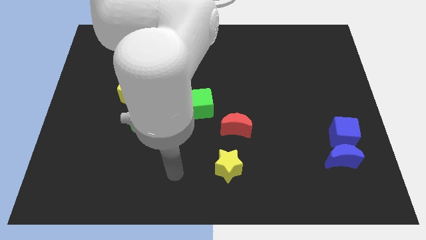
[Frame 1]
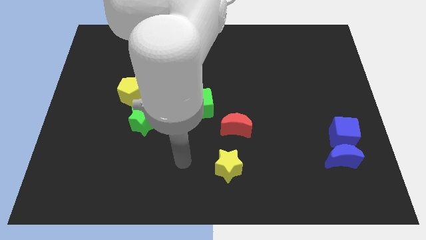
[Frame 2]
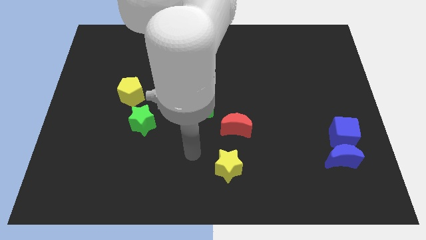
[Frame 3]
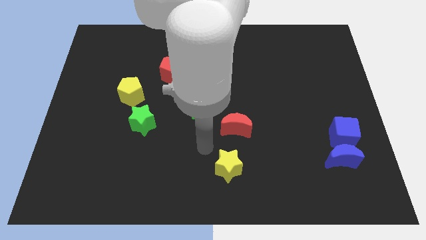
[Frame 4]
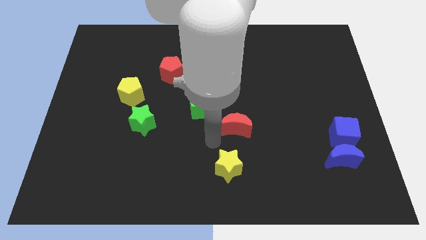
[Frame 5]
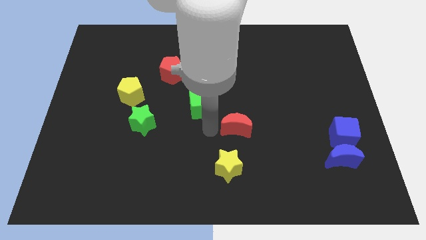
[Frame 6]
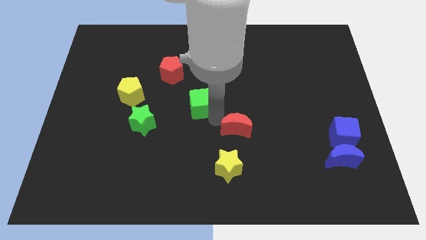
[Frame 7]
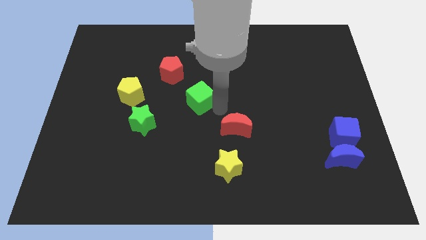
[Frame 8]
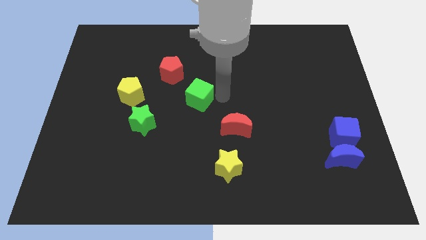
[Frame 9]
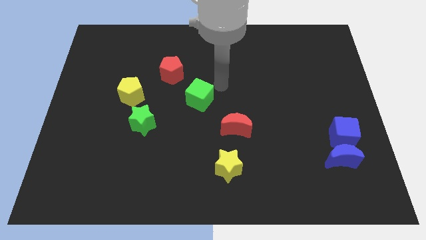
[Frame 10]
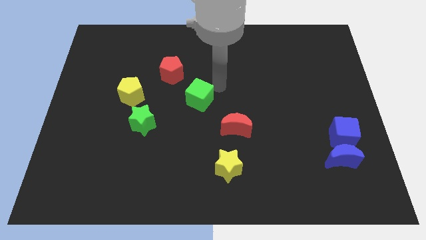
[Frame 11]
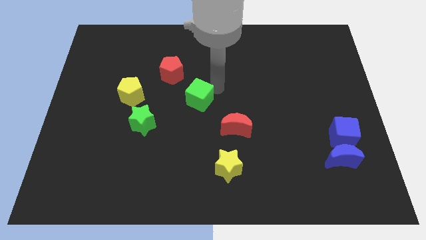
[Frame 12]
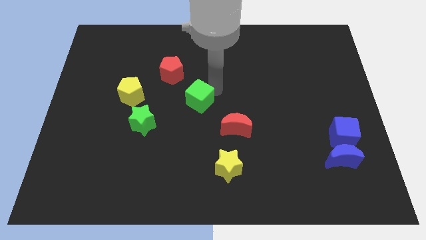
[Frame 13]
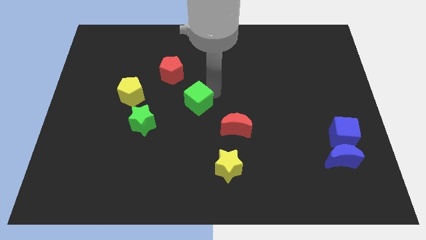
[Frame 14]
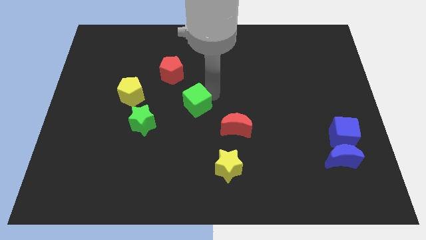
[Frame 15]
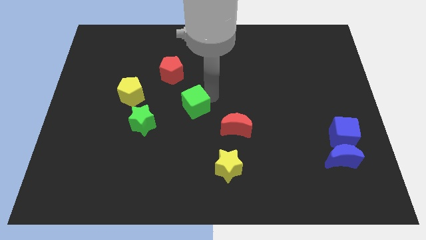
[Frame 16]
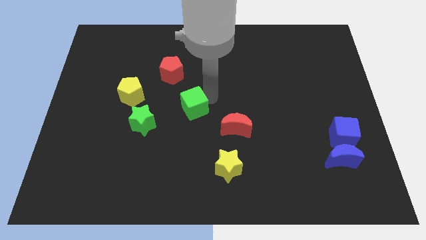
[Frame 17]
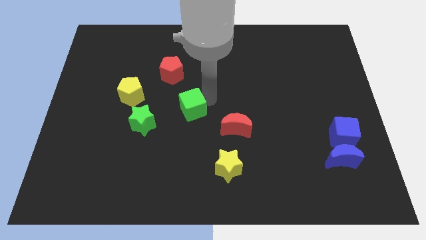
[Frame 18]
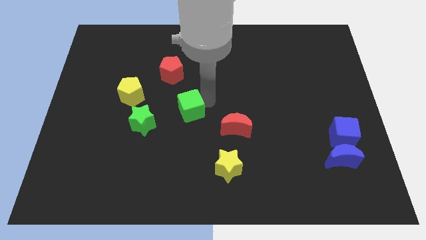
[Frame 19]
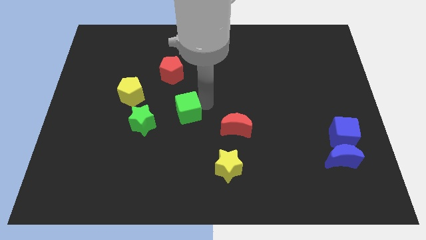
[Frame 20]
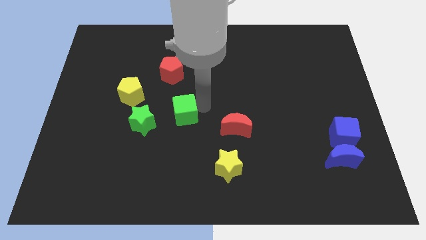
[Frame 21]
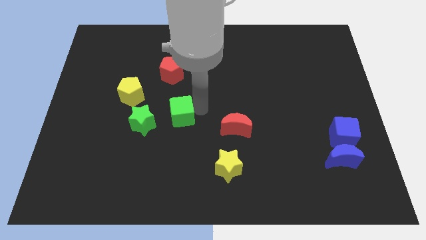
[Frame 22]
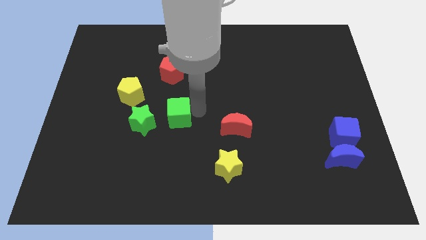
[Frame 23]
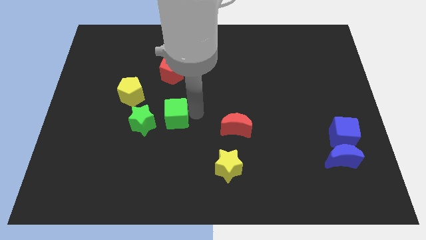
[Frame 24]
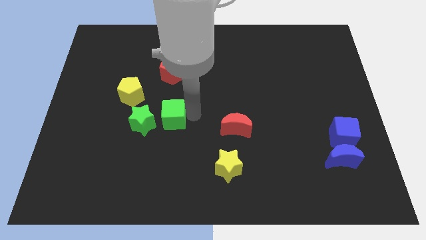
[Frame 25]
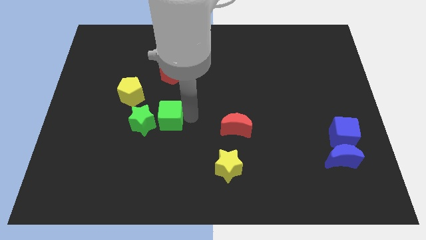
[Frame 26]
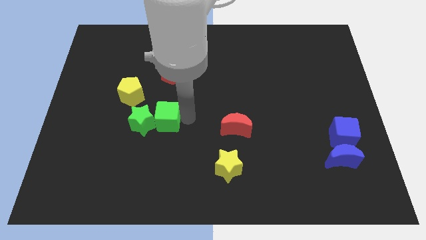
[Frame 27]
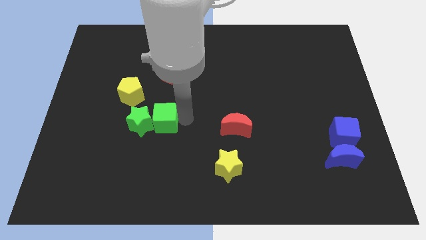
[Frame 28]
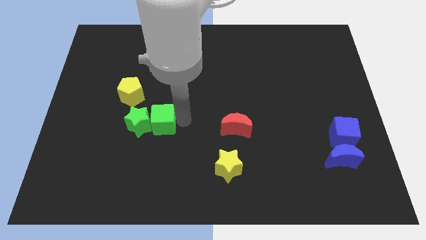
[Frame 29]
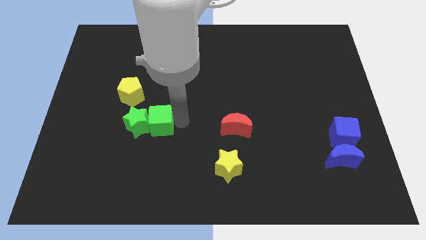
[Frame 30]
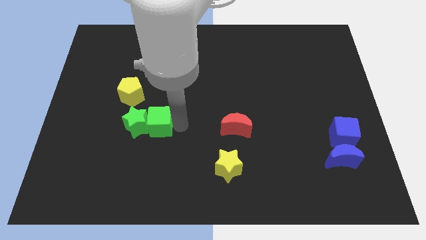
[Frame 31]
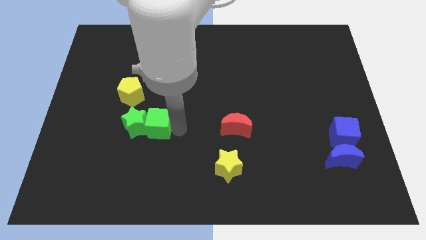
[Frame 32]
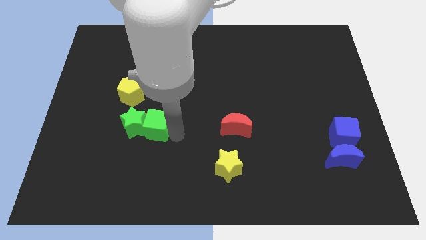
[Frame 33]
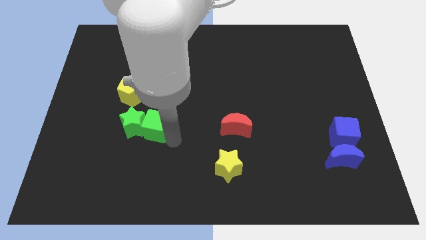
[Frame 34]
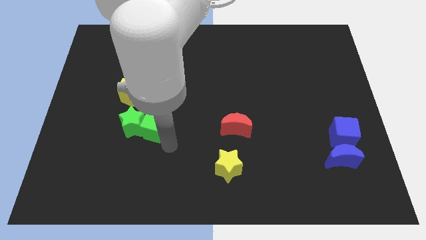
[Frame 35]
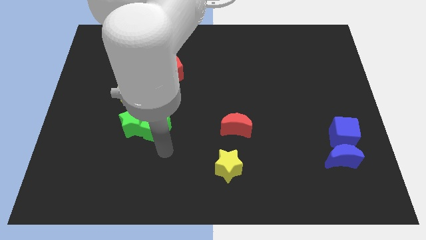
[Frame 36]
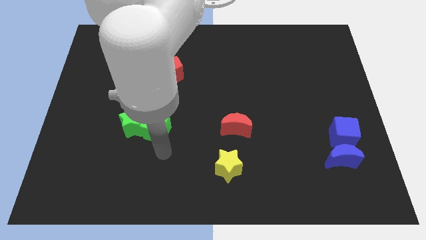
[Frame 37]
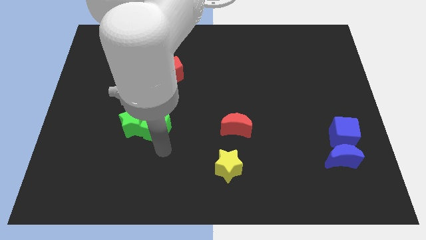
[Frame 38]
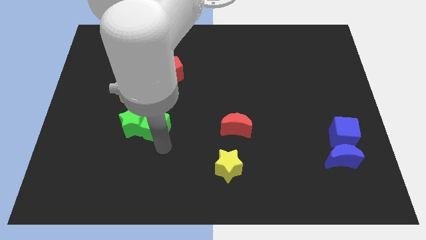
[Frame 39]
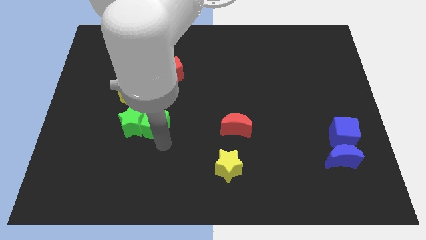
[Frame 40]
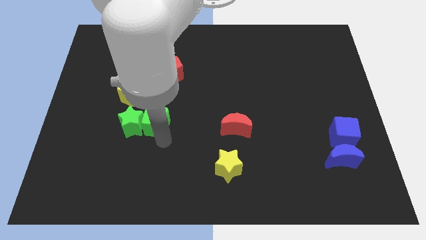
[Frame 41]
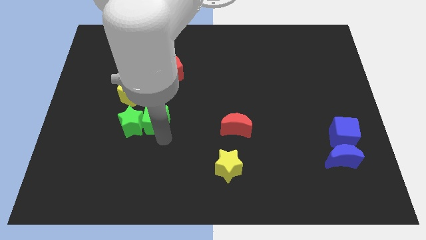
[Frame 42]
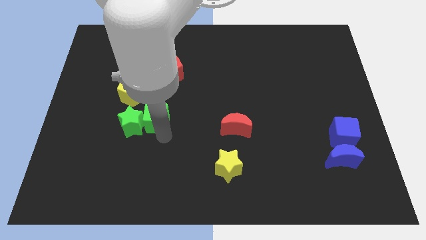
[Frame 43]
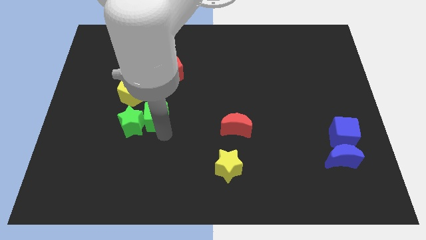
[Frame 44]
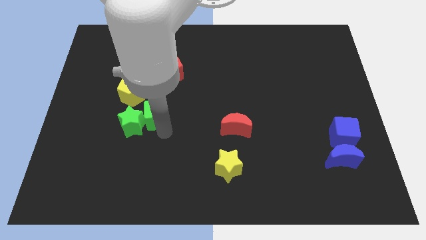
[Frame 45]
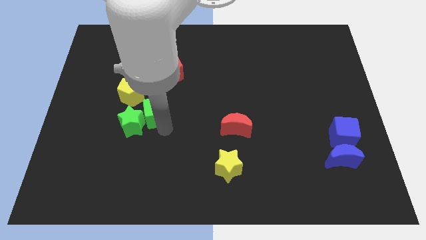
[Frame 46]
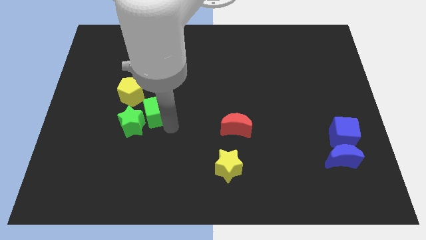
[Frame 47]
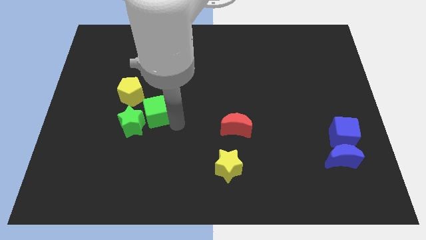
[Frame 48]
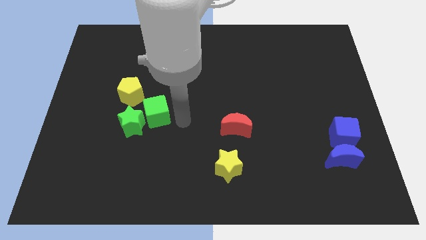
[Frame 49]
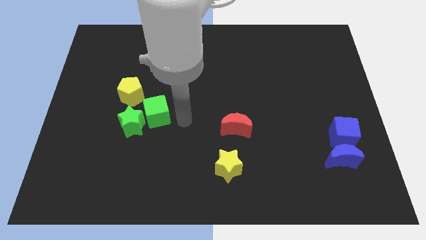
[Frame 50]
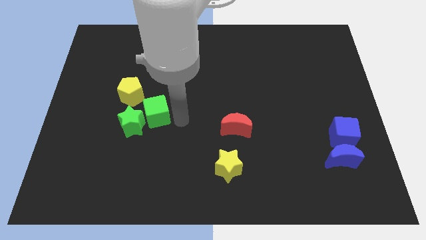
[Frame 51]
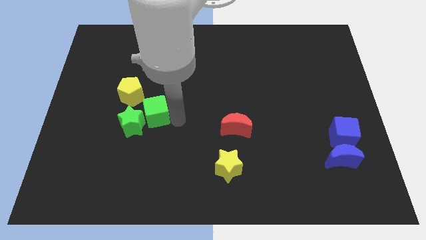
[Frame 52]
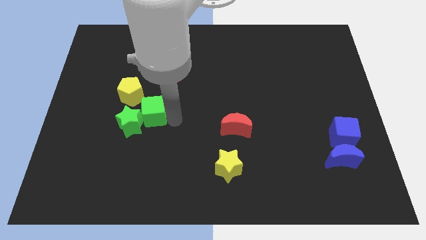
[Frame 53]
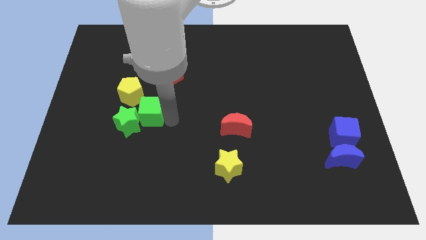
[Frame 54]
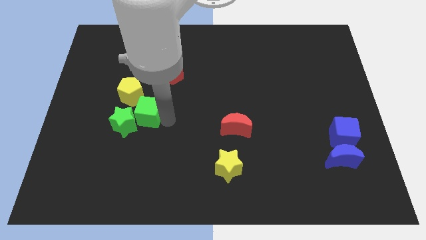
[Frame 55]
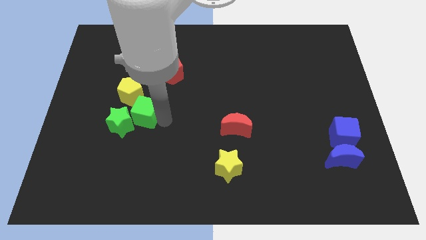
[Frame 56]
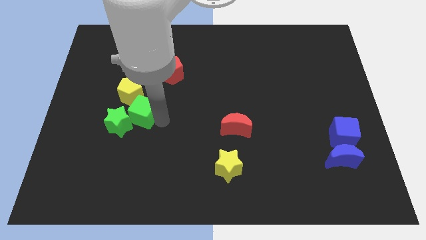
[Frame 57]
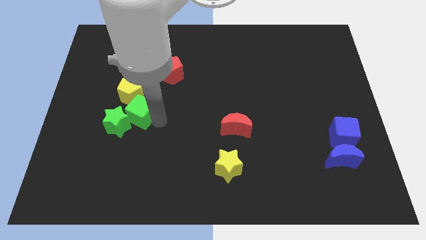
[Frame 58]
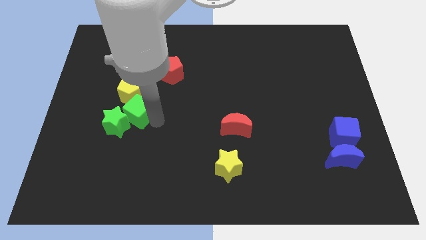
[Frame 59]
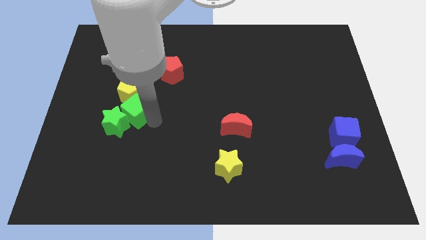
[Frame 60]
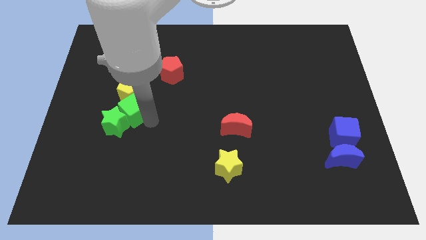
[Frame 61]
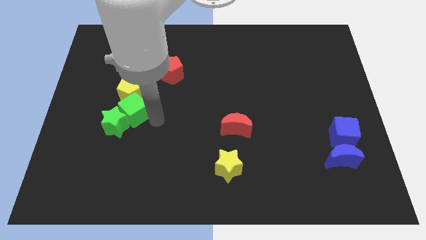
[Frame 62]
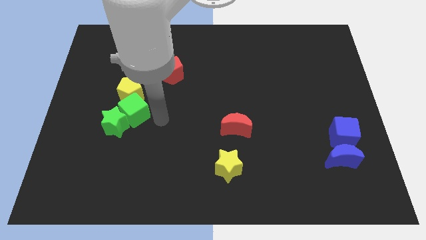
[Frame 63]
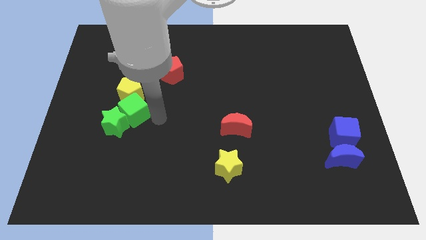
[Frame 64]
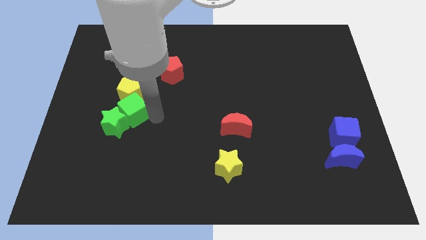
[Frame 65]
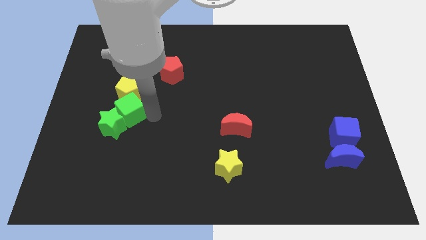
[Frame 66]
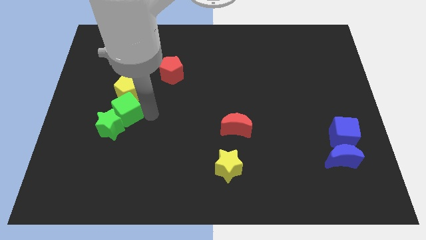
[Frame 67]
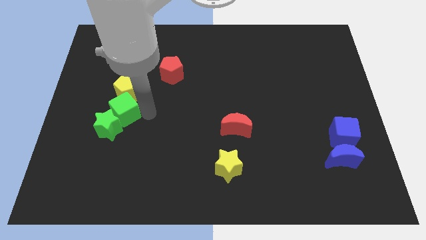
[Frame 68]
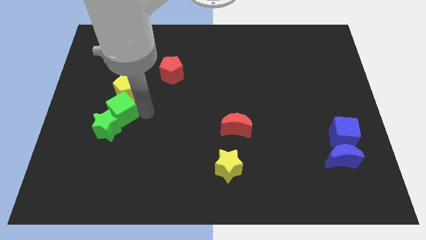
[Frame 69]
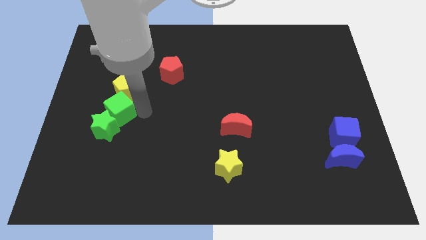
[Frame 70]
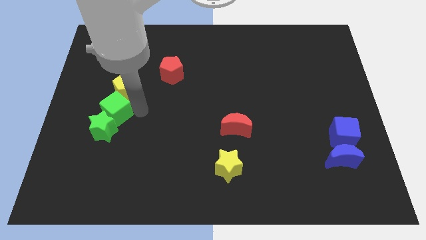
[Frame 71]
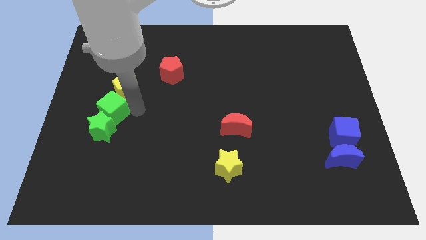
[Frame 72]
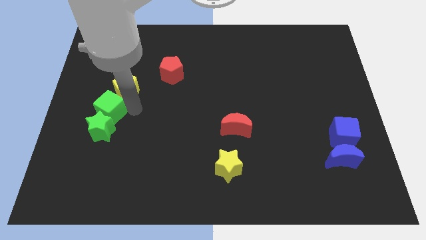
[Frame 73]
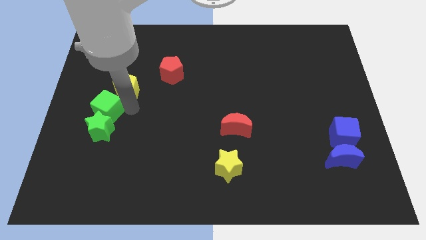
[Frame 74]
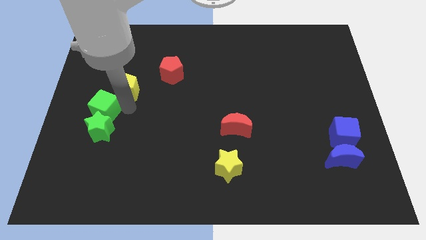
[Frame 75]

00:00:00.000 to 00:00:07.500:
slide the green cube to the center left

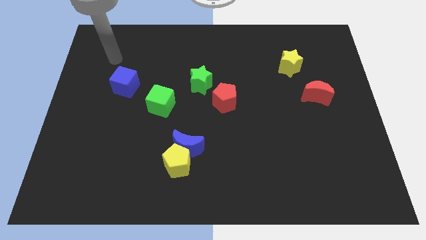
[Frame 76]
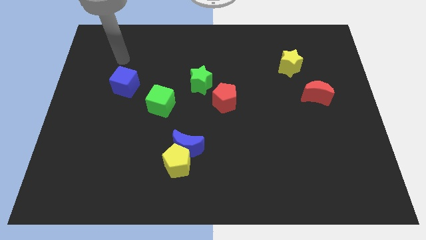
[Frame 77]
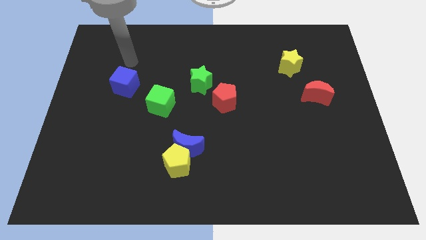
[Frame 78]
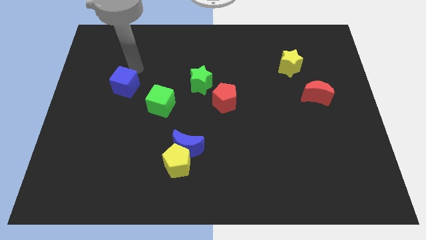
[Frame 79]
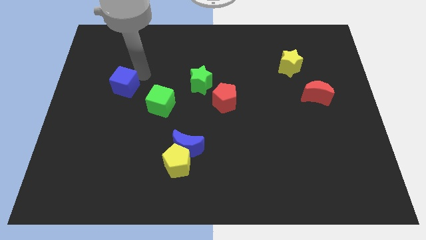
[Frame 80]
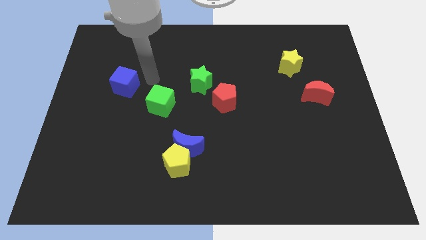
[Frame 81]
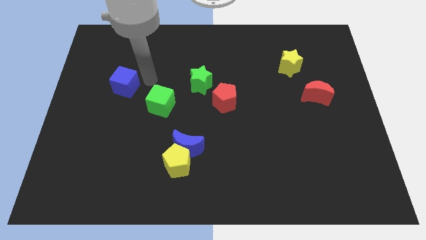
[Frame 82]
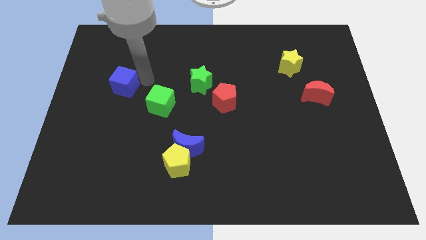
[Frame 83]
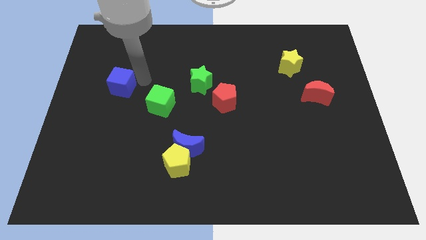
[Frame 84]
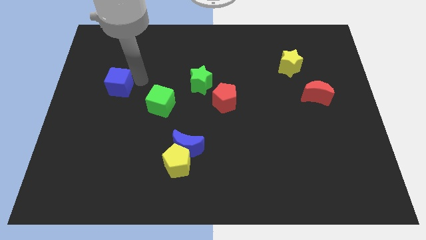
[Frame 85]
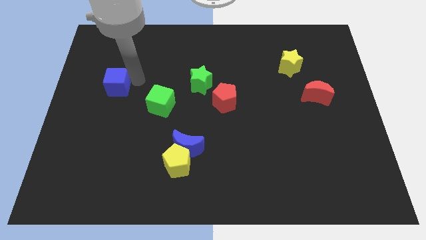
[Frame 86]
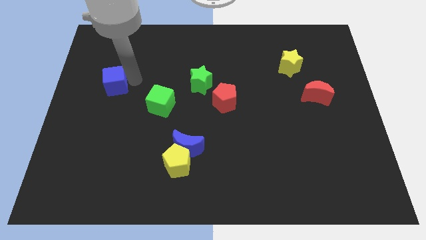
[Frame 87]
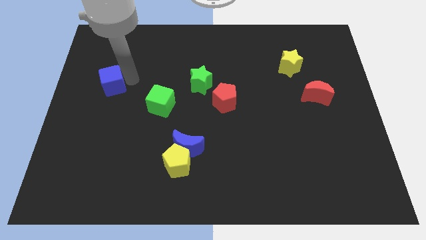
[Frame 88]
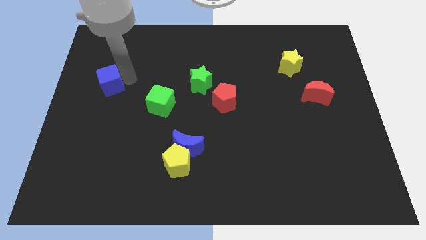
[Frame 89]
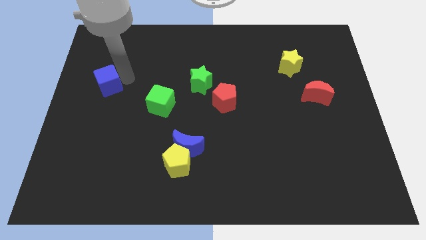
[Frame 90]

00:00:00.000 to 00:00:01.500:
put the blue cube to the left side
